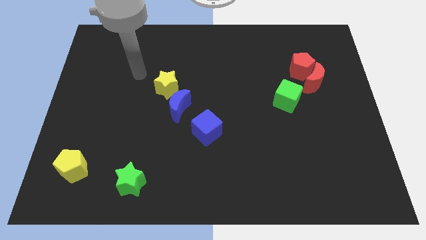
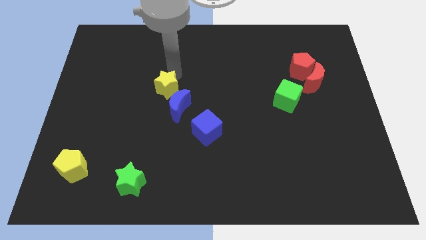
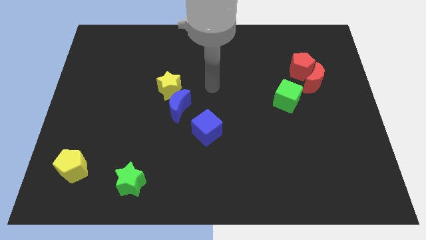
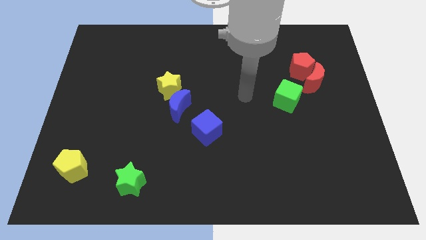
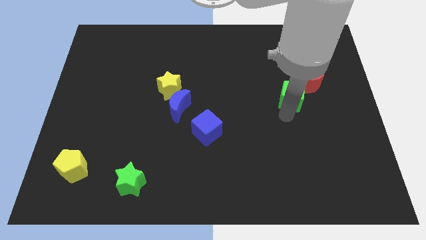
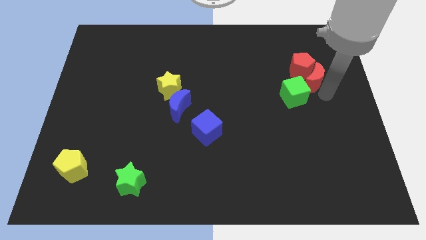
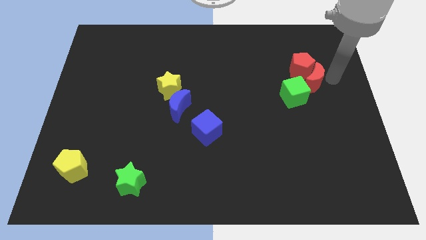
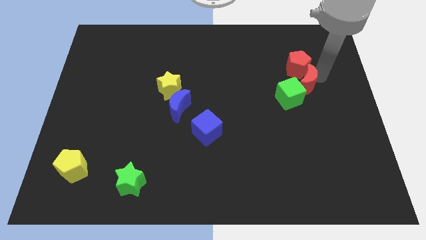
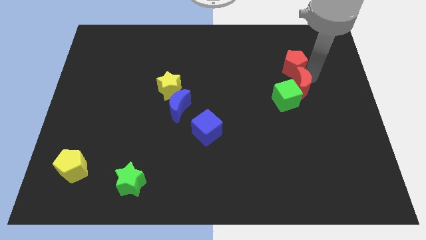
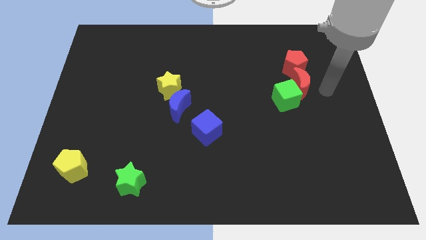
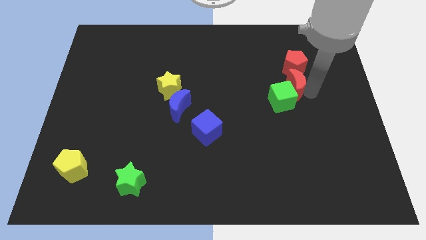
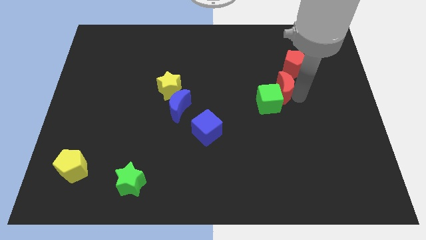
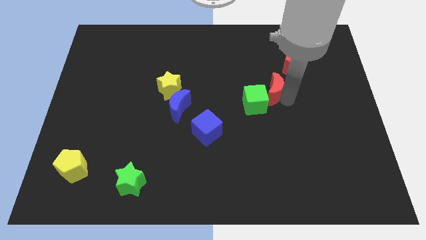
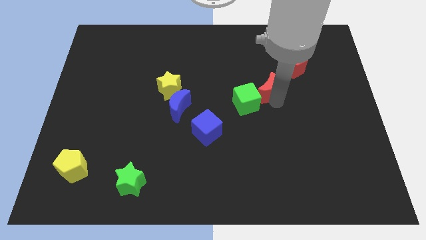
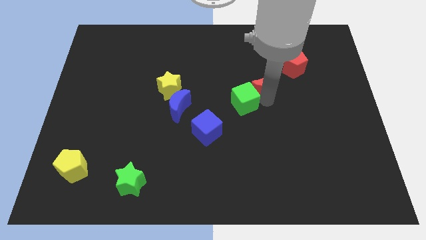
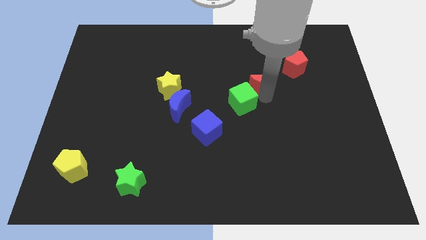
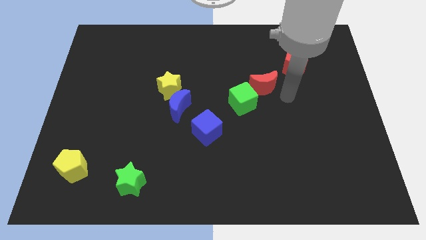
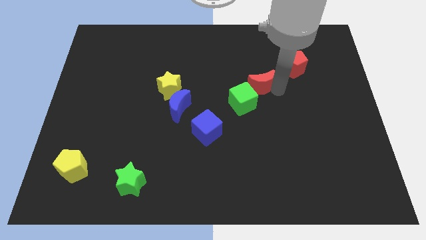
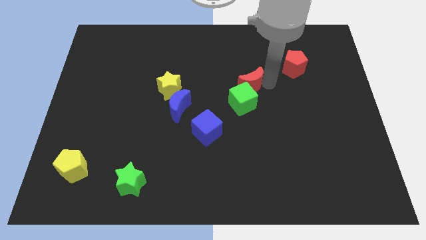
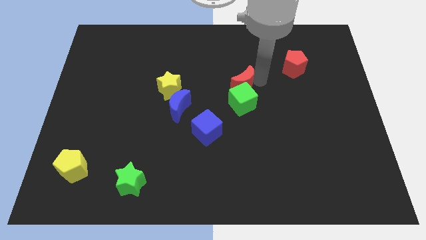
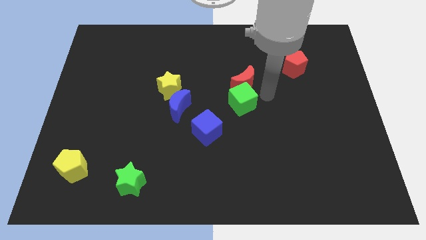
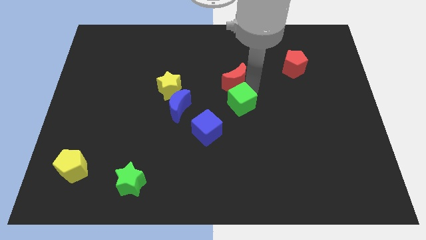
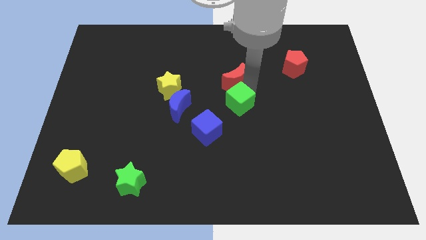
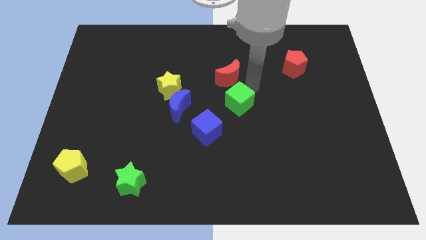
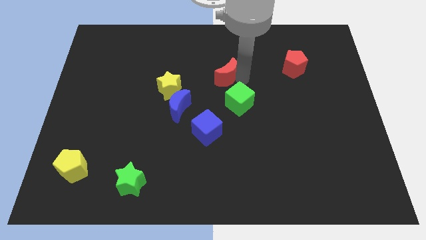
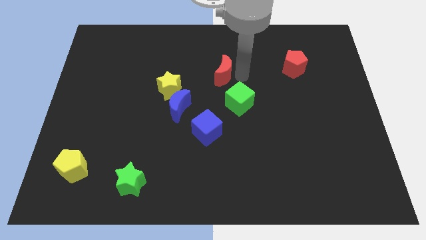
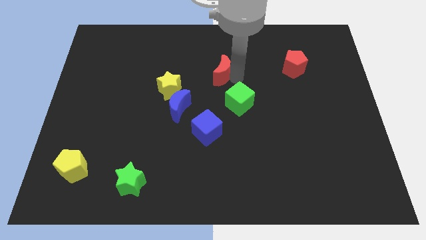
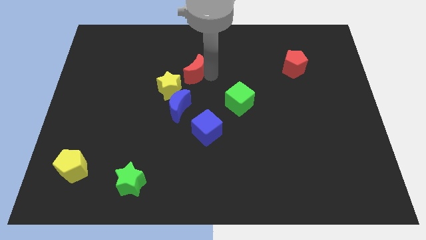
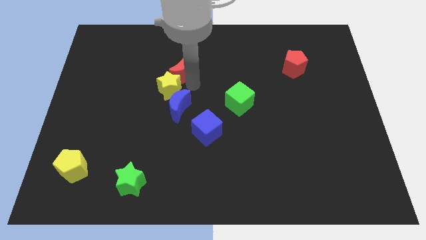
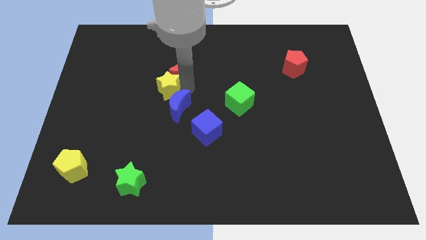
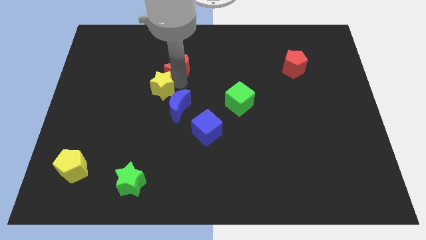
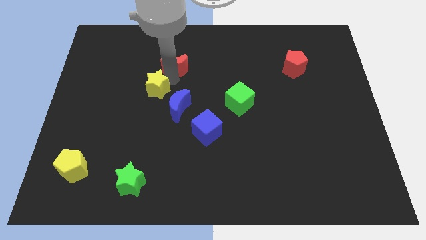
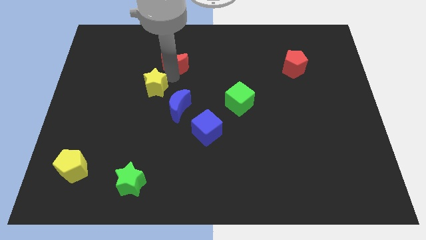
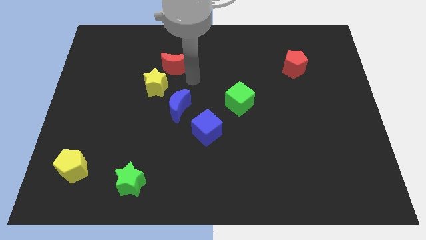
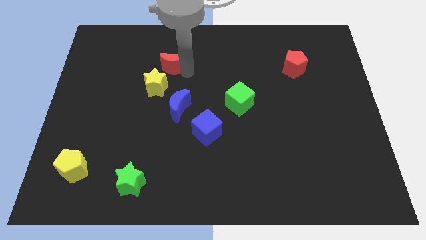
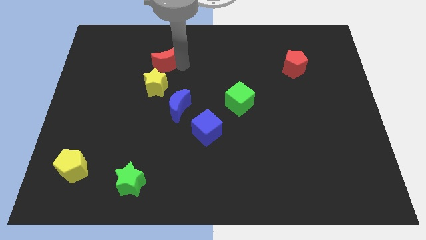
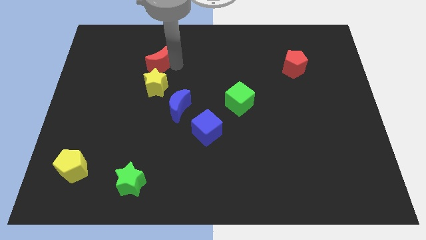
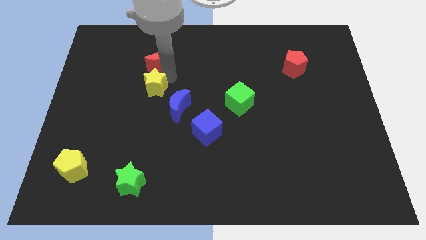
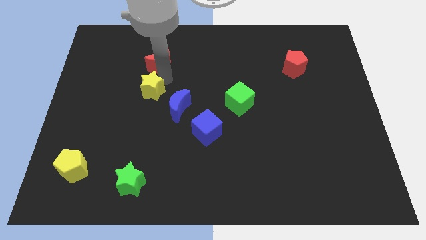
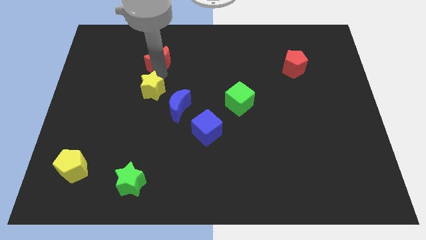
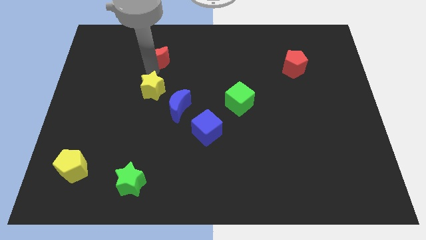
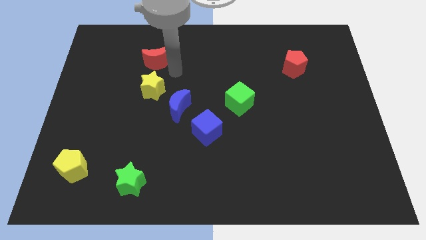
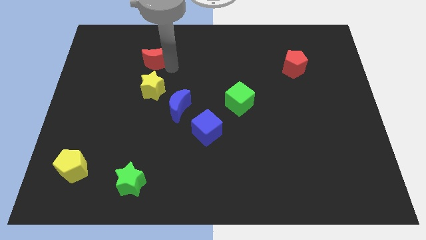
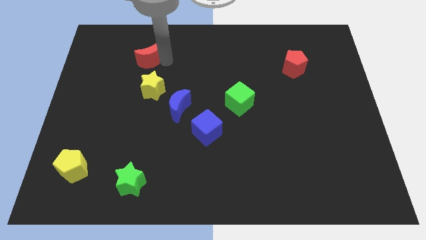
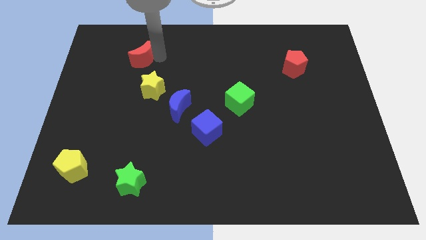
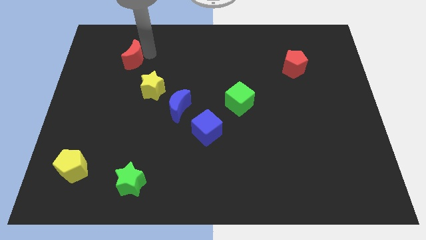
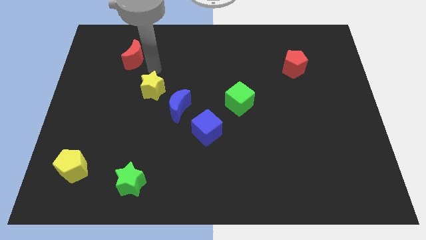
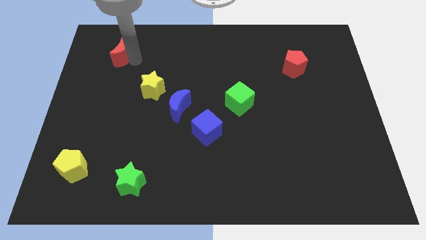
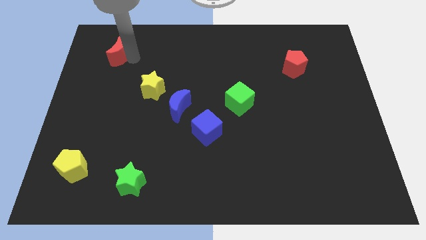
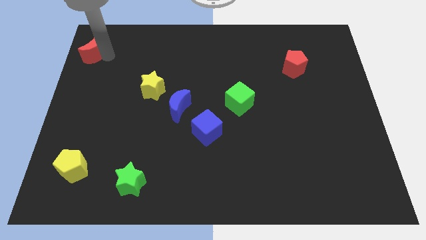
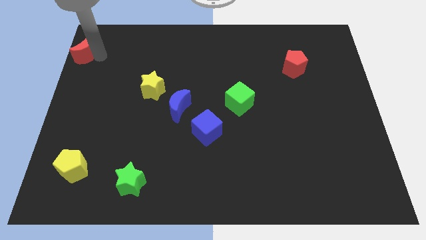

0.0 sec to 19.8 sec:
push the red moon to the top left

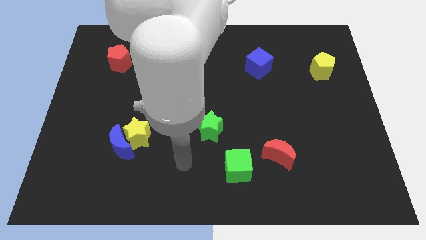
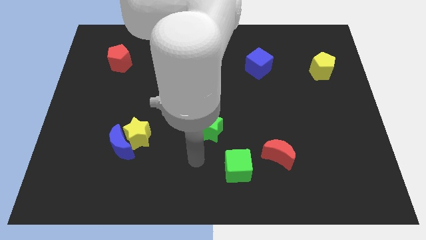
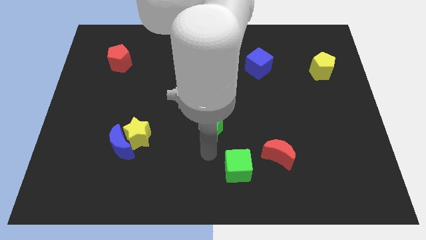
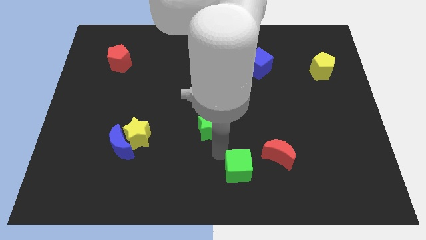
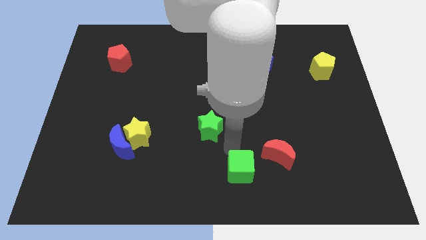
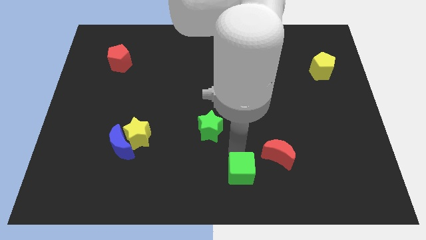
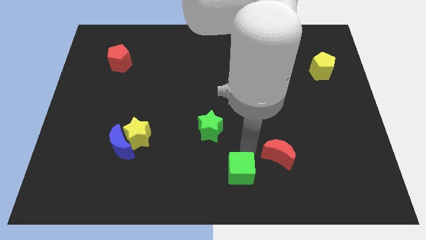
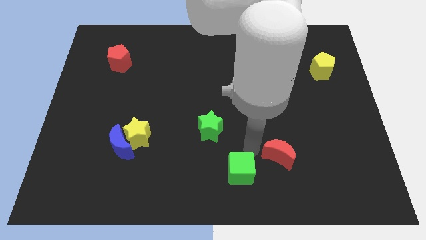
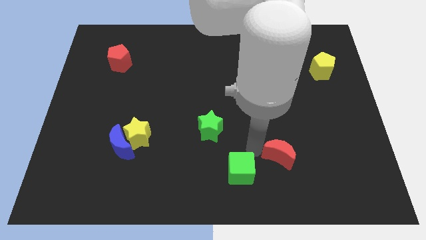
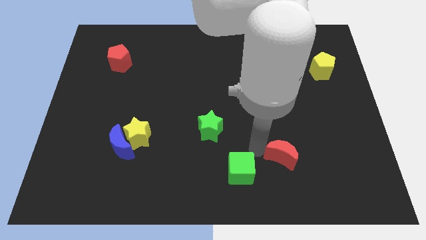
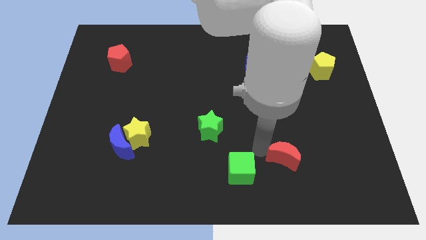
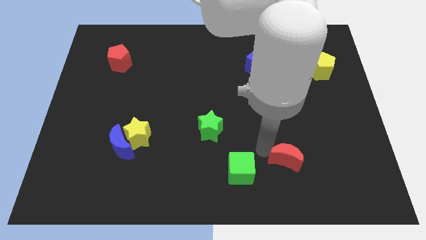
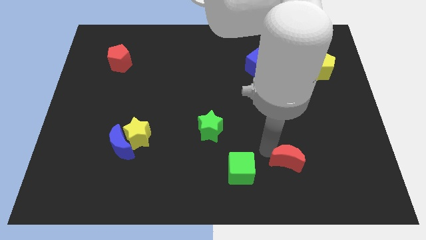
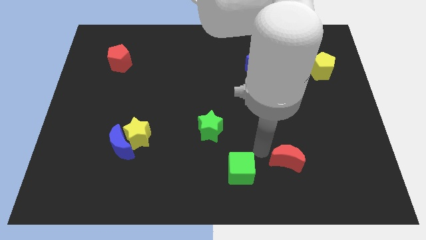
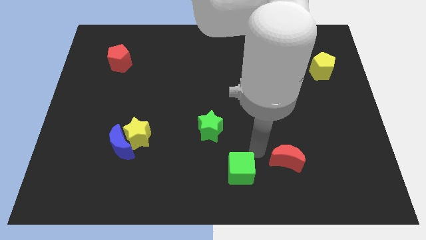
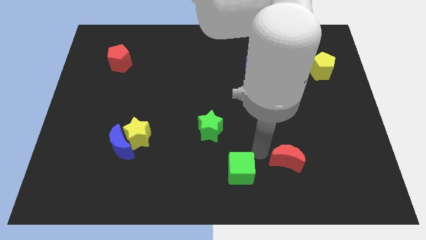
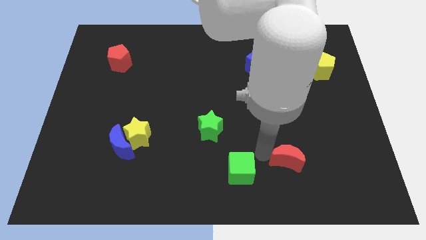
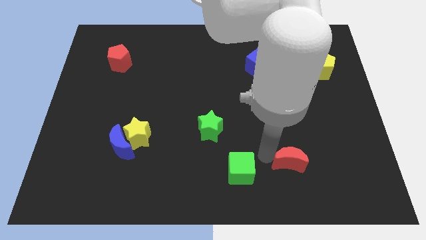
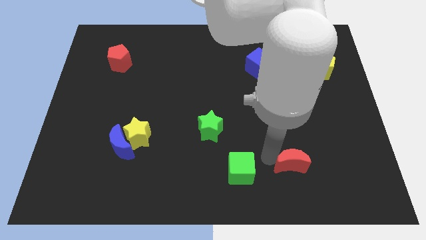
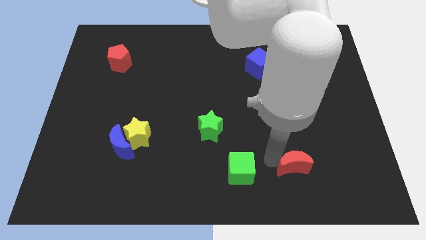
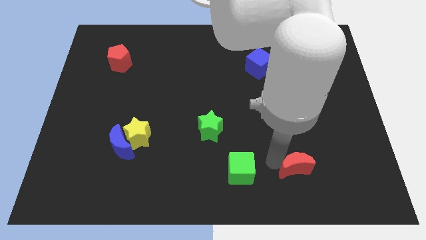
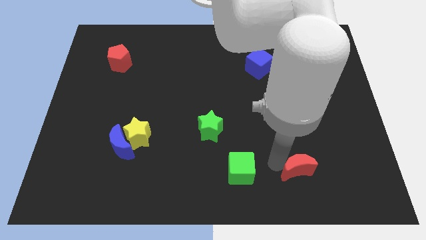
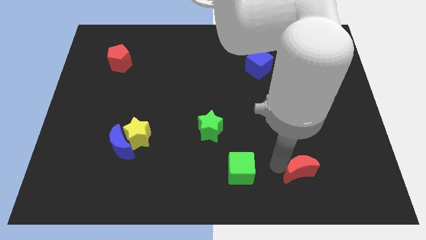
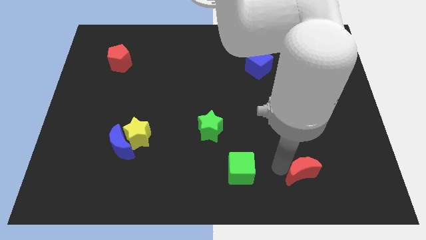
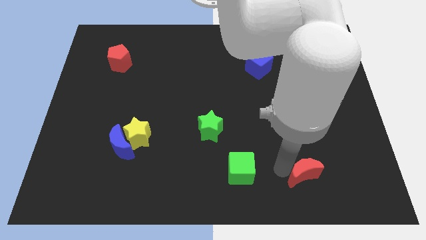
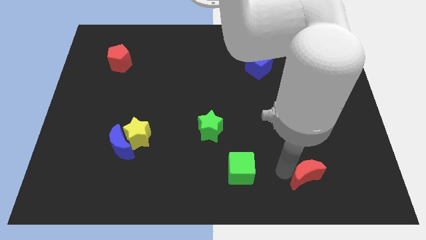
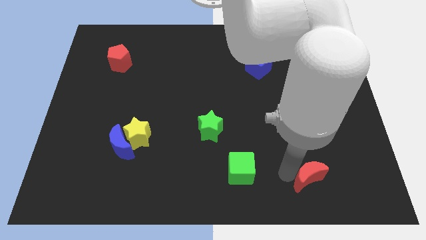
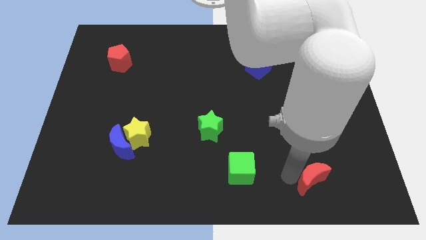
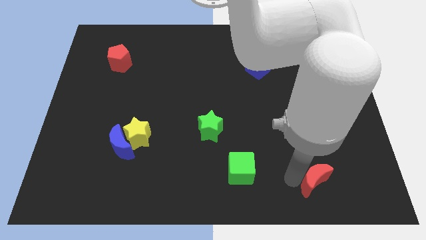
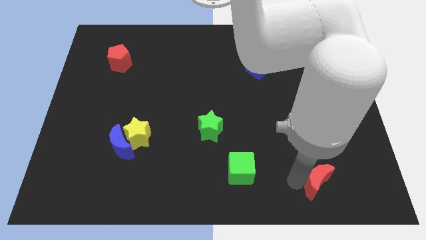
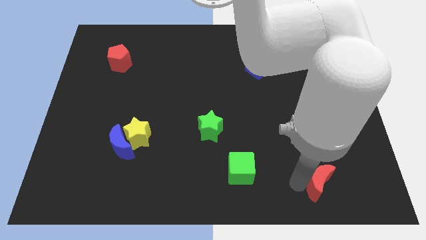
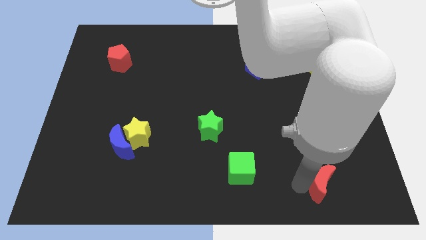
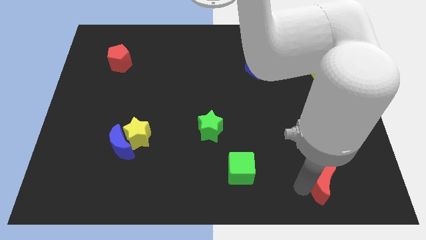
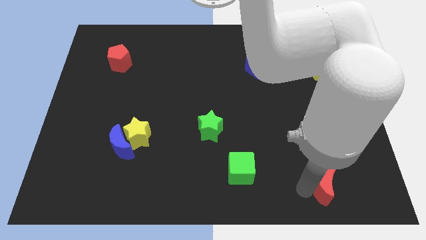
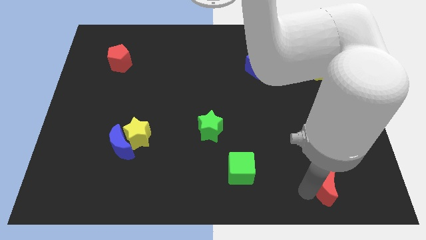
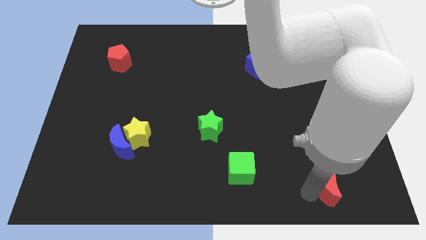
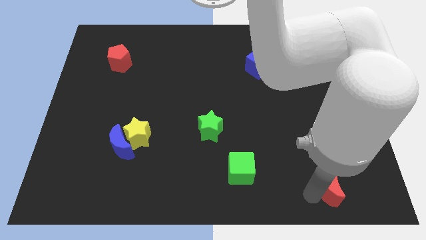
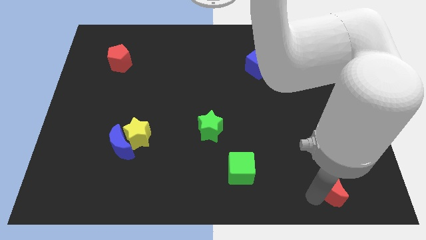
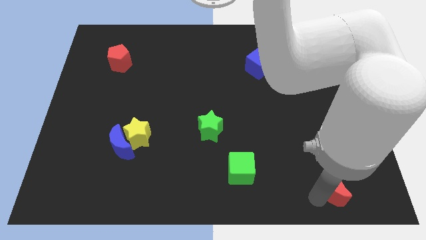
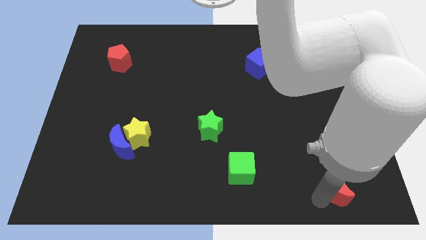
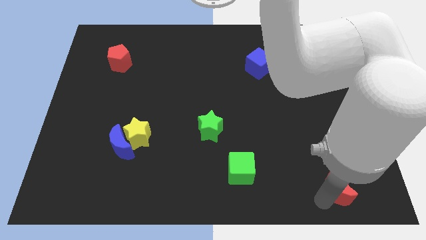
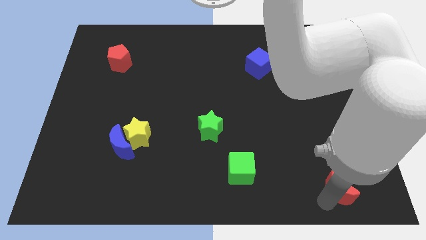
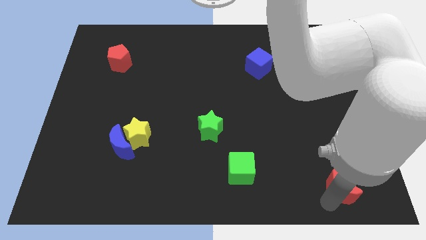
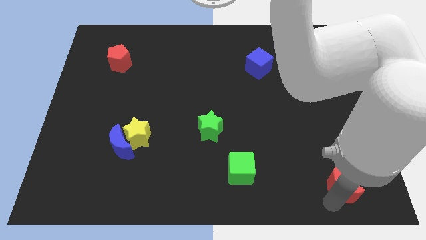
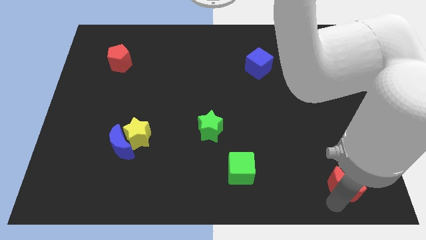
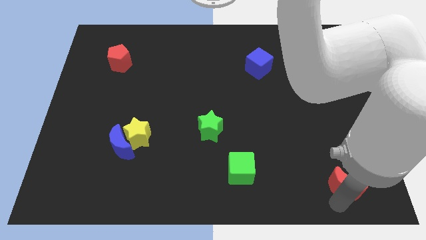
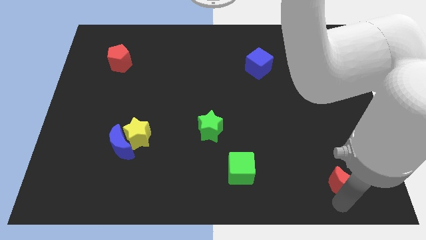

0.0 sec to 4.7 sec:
slide the red moon to the bottom right corner
